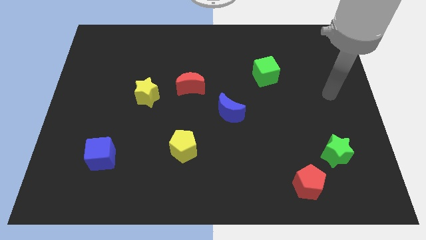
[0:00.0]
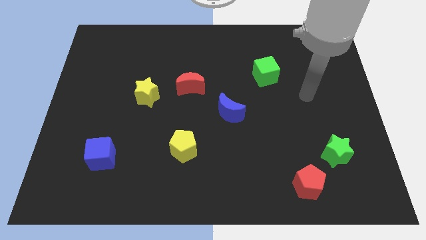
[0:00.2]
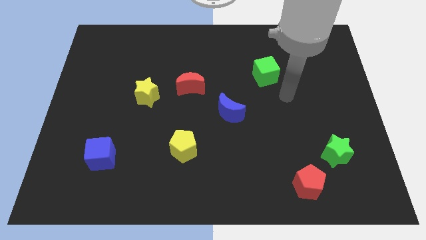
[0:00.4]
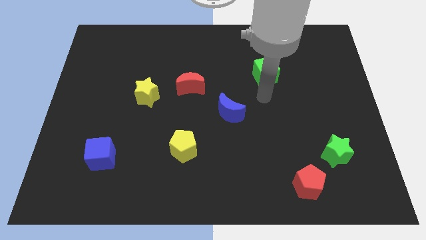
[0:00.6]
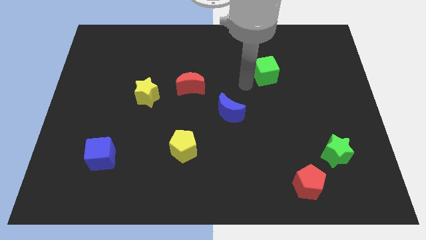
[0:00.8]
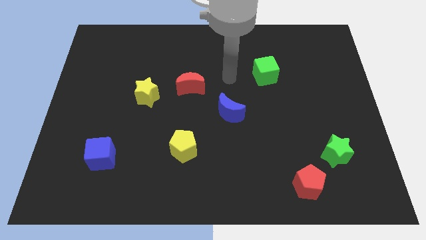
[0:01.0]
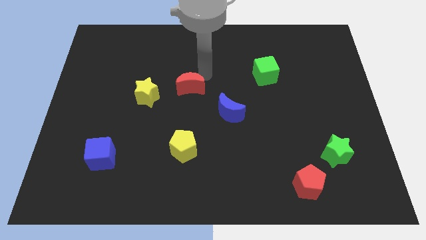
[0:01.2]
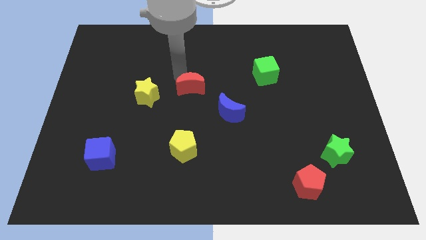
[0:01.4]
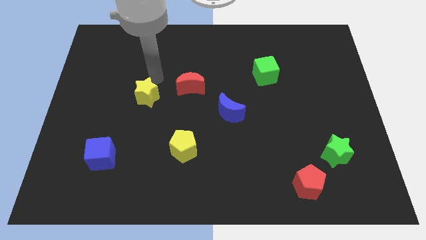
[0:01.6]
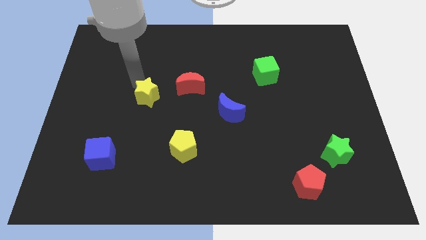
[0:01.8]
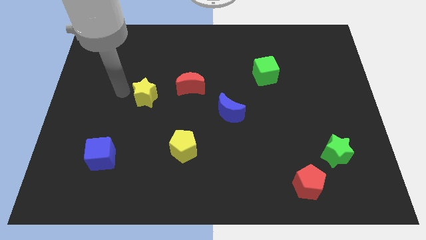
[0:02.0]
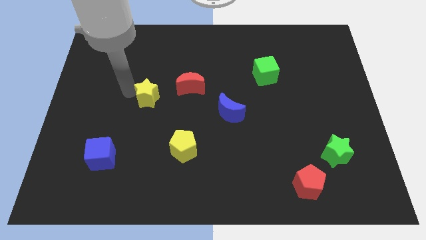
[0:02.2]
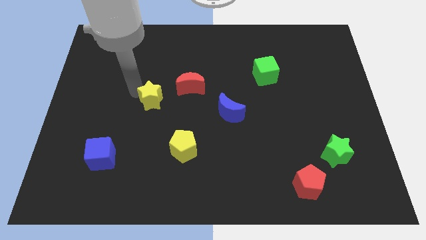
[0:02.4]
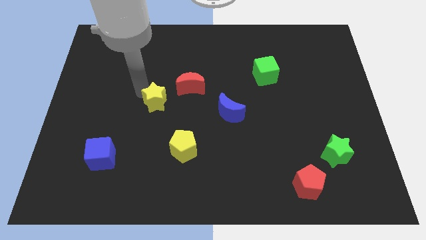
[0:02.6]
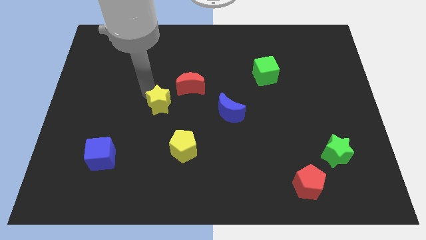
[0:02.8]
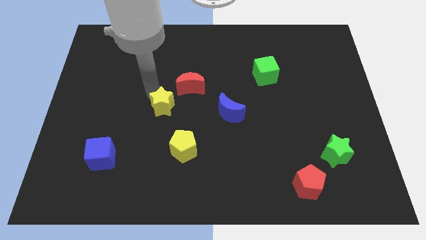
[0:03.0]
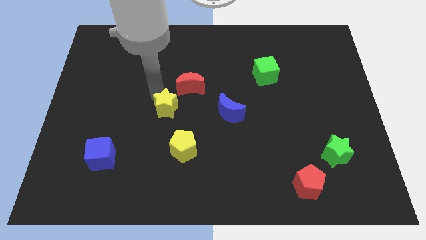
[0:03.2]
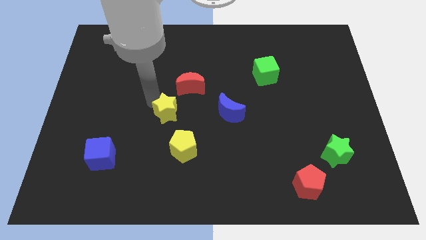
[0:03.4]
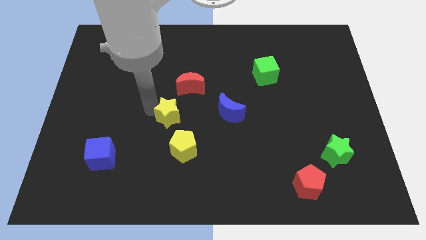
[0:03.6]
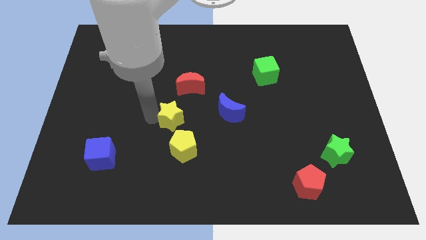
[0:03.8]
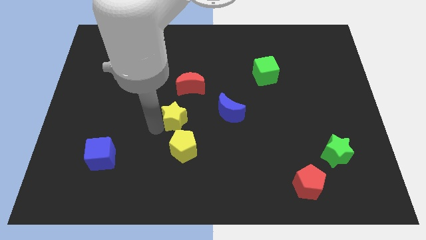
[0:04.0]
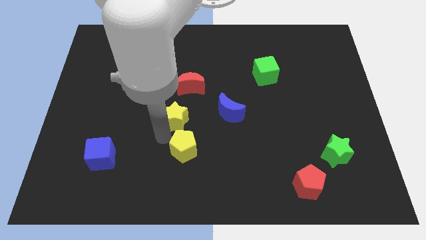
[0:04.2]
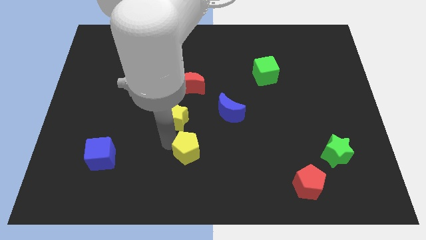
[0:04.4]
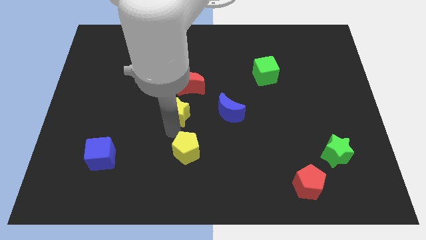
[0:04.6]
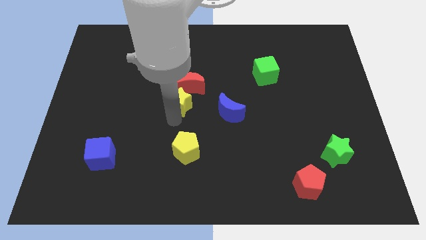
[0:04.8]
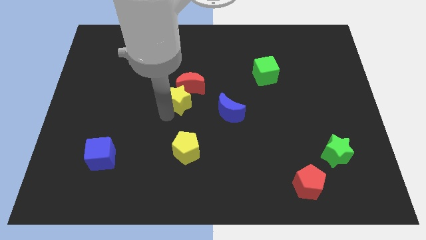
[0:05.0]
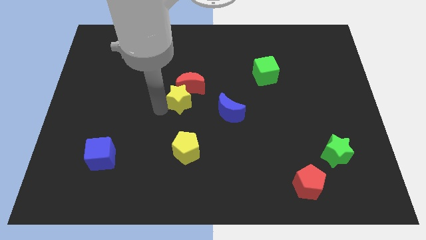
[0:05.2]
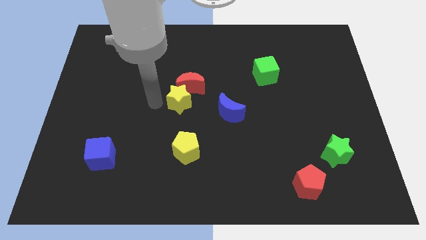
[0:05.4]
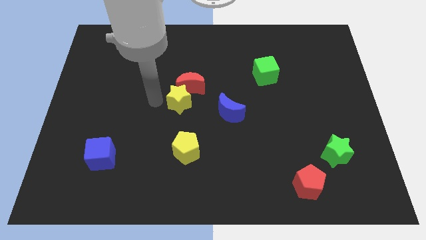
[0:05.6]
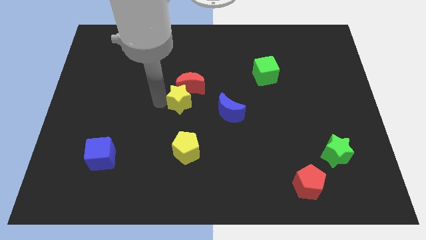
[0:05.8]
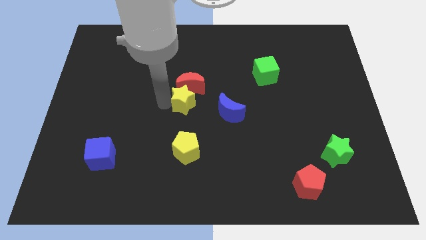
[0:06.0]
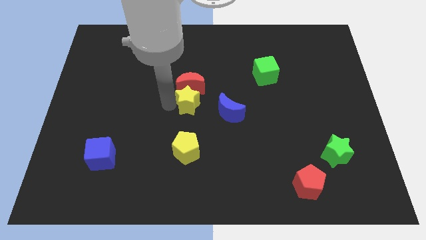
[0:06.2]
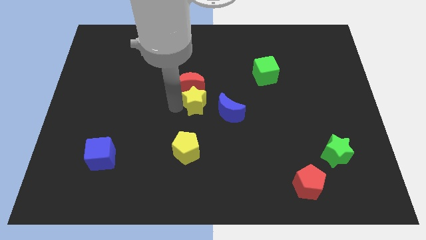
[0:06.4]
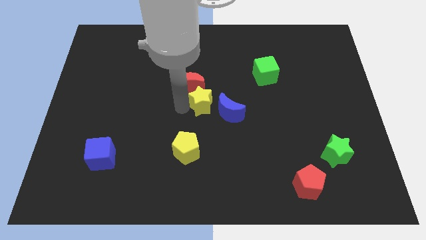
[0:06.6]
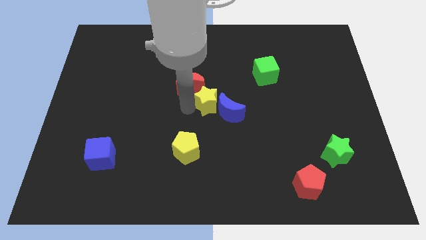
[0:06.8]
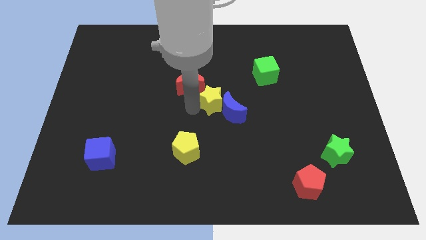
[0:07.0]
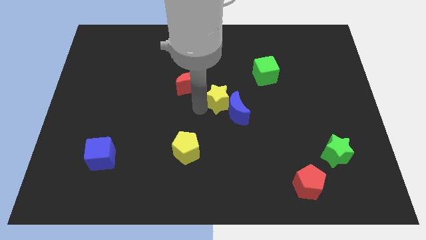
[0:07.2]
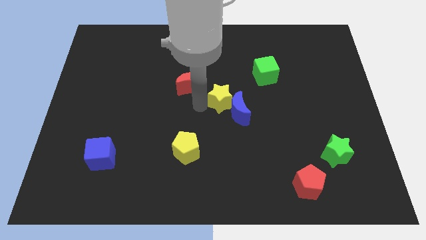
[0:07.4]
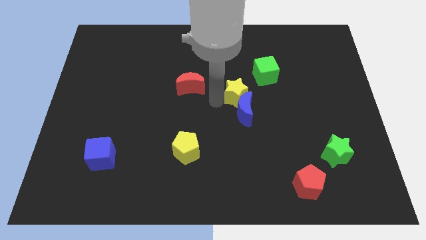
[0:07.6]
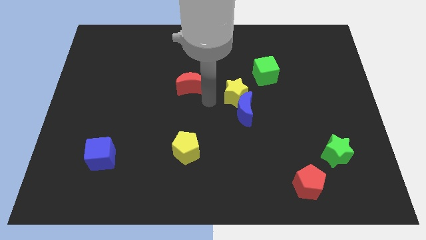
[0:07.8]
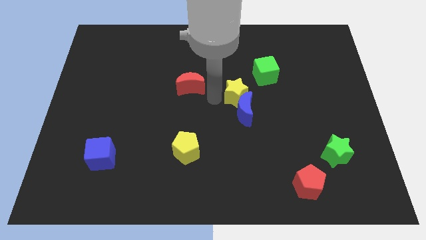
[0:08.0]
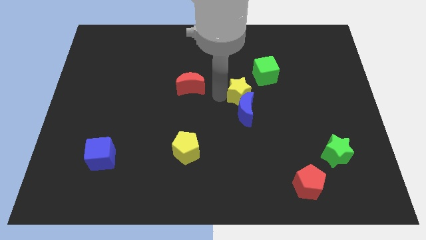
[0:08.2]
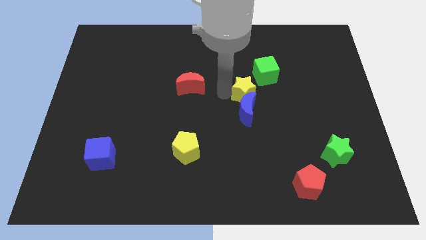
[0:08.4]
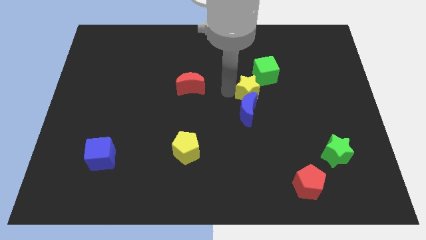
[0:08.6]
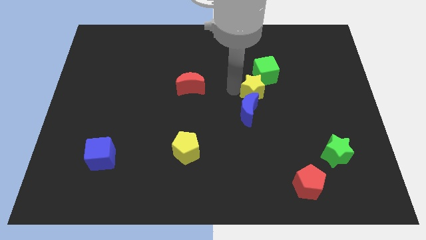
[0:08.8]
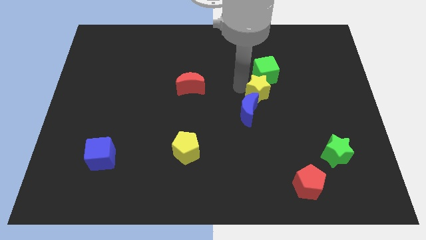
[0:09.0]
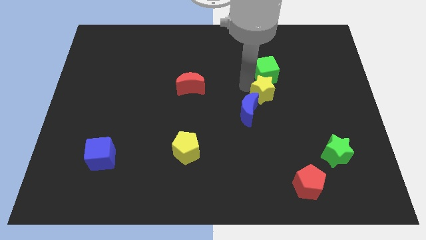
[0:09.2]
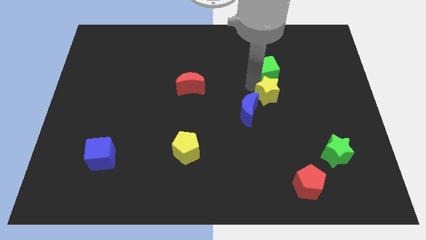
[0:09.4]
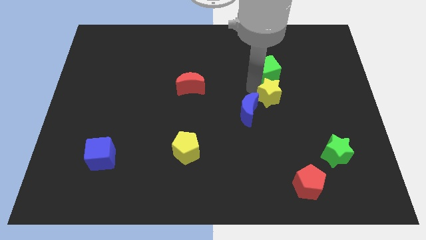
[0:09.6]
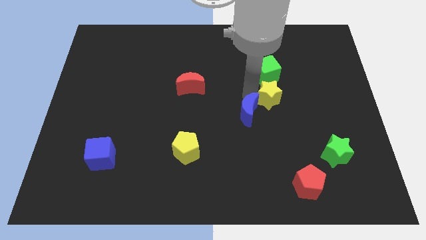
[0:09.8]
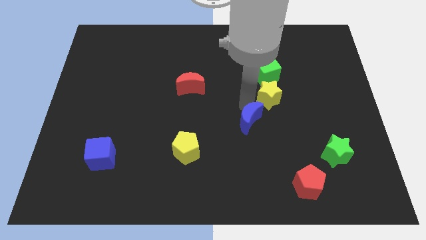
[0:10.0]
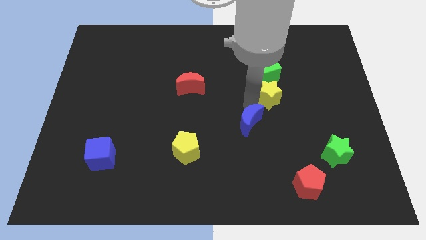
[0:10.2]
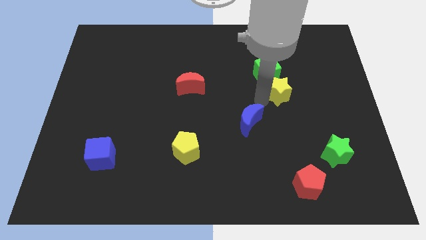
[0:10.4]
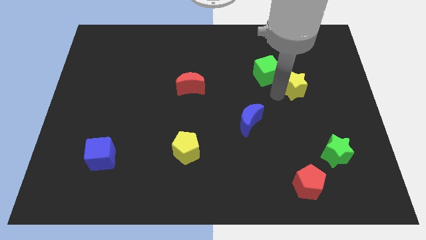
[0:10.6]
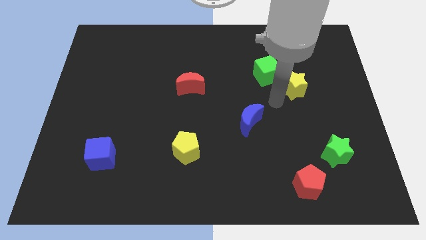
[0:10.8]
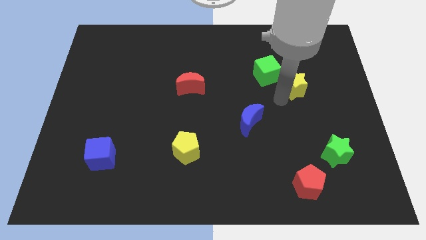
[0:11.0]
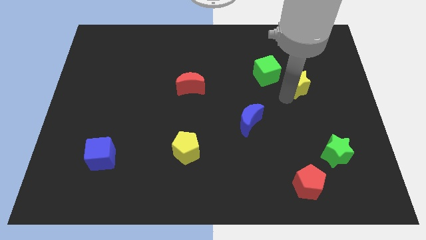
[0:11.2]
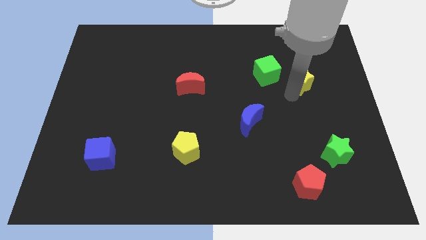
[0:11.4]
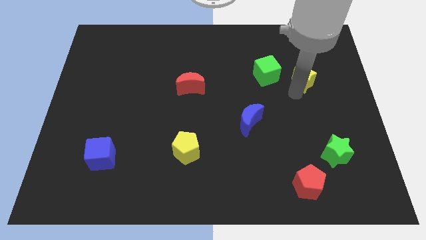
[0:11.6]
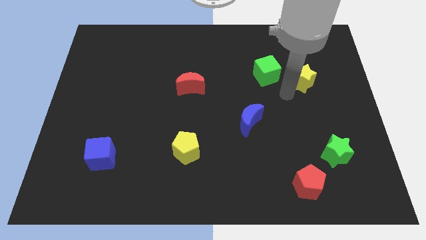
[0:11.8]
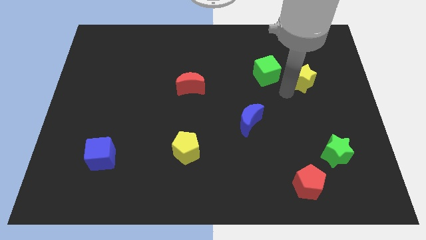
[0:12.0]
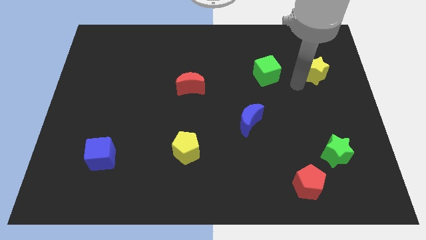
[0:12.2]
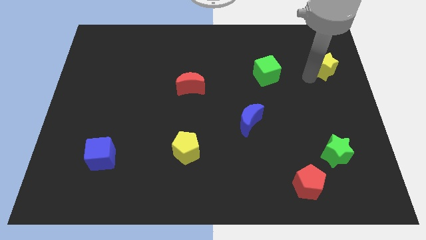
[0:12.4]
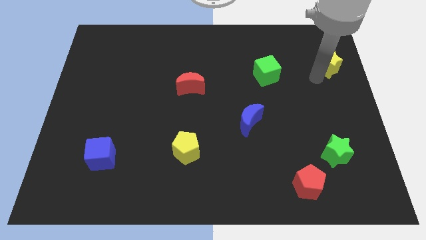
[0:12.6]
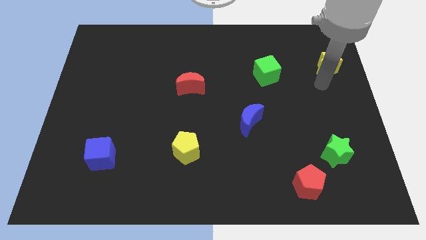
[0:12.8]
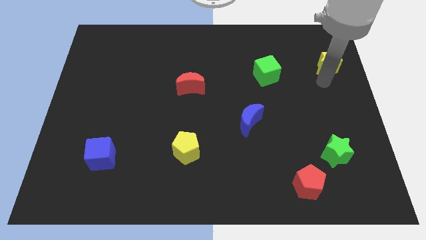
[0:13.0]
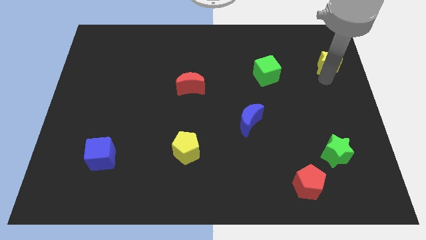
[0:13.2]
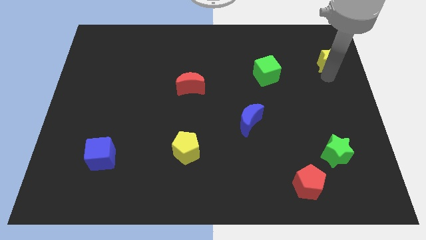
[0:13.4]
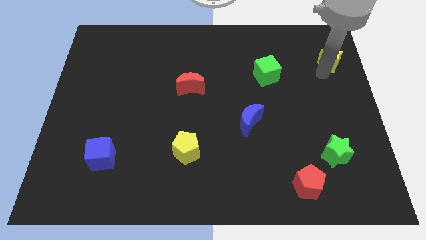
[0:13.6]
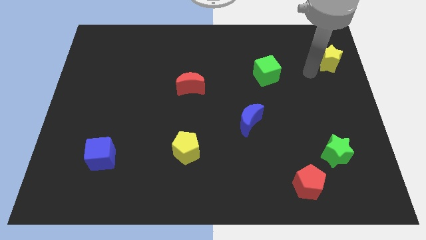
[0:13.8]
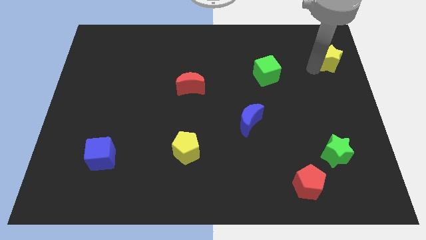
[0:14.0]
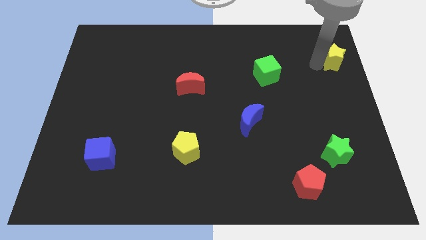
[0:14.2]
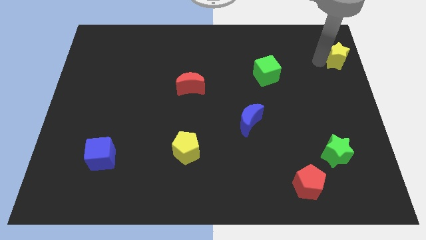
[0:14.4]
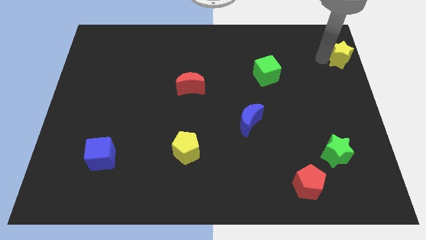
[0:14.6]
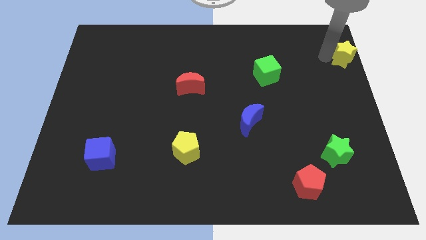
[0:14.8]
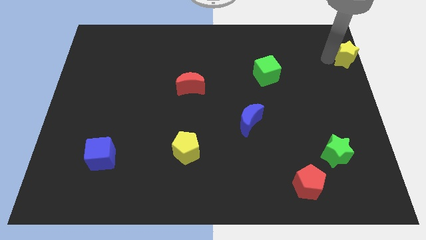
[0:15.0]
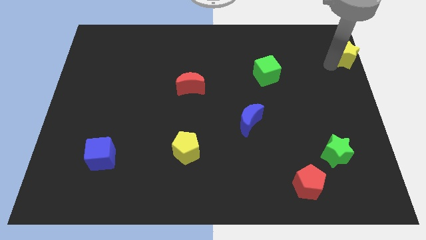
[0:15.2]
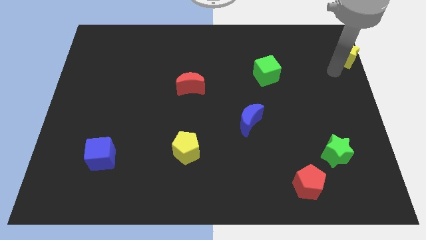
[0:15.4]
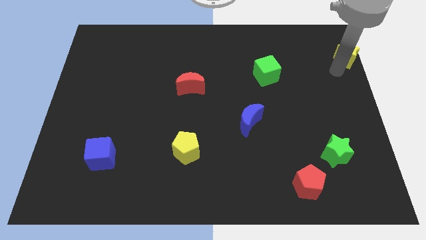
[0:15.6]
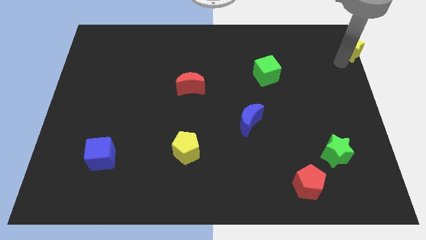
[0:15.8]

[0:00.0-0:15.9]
slide the yellow star to the top right corner
